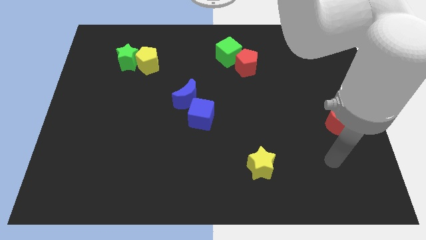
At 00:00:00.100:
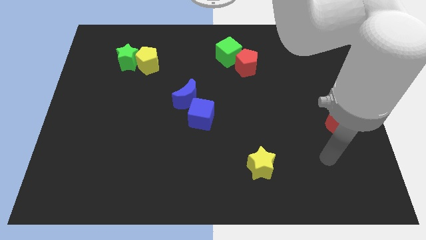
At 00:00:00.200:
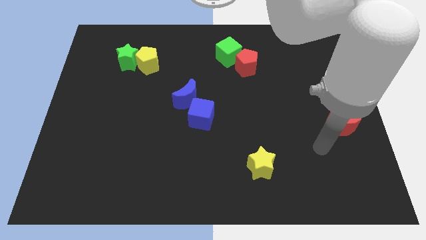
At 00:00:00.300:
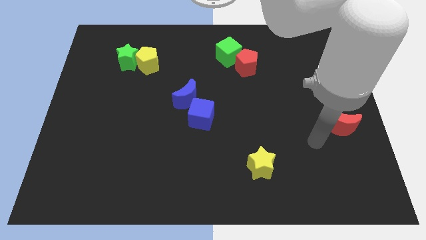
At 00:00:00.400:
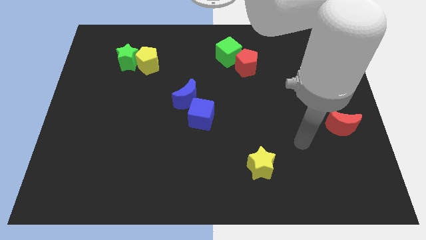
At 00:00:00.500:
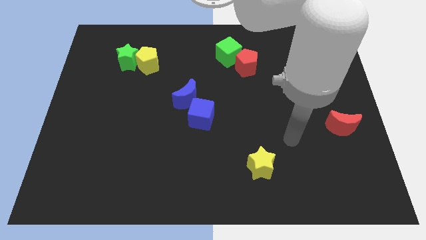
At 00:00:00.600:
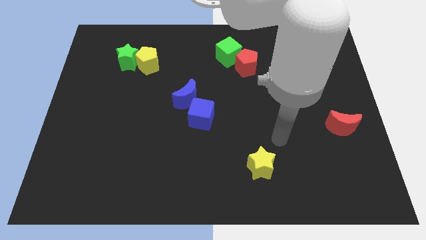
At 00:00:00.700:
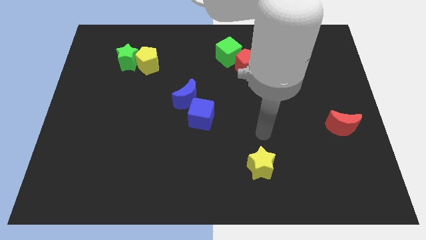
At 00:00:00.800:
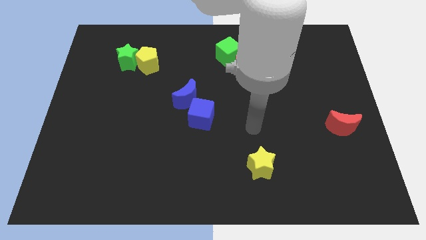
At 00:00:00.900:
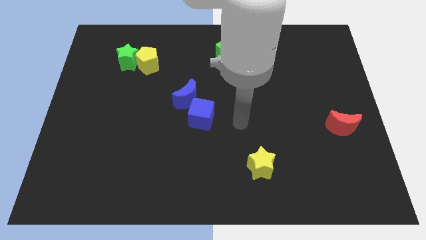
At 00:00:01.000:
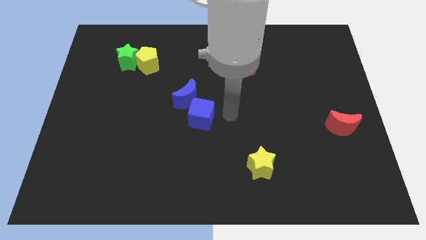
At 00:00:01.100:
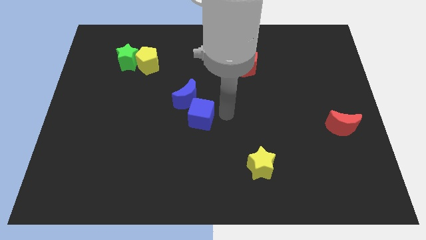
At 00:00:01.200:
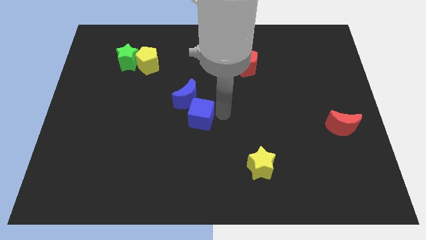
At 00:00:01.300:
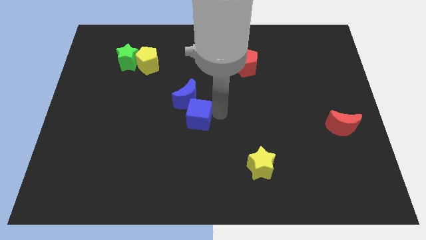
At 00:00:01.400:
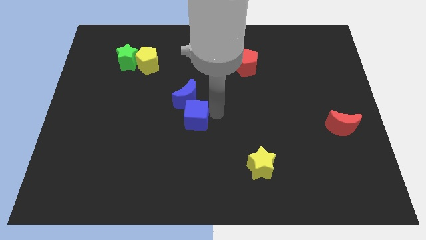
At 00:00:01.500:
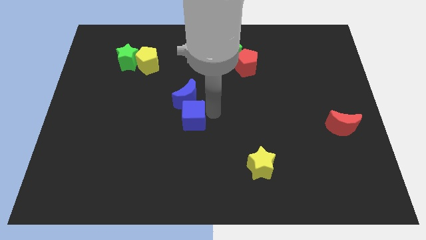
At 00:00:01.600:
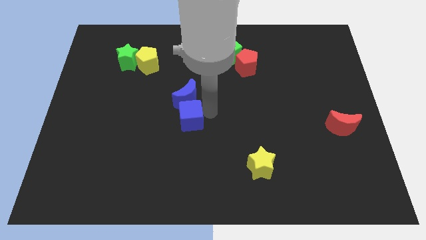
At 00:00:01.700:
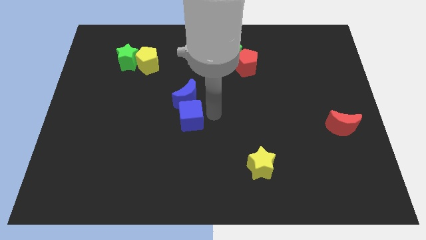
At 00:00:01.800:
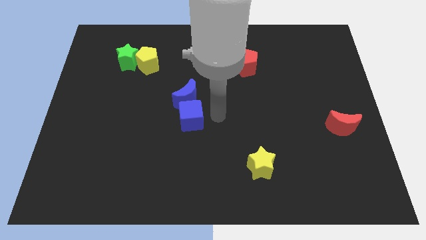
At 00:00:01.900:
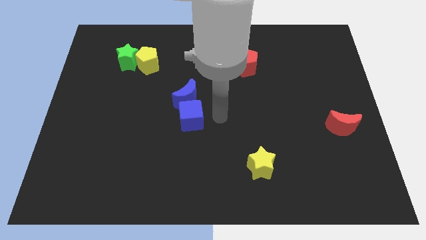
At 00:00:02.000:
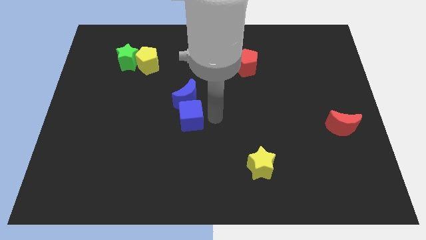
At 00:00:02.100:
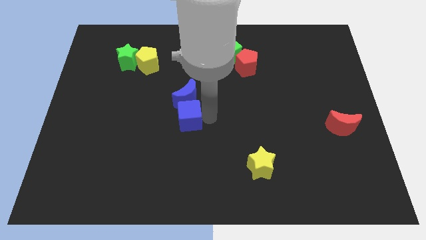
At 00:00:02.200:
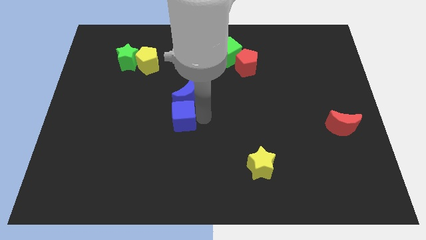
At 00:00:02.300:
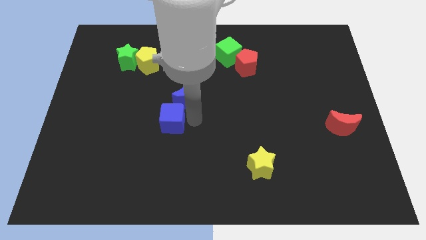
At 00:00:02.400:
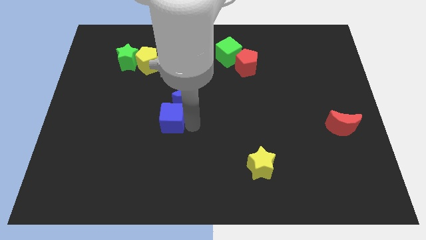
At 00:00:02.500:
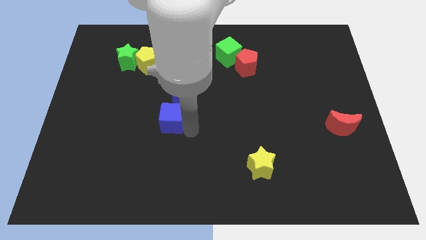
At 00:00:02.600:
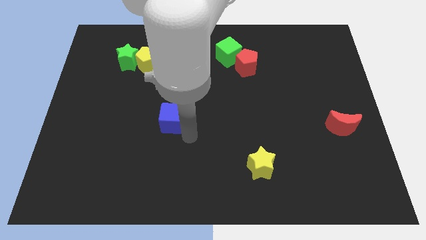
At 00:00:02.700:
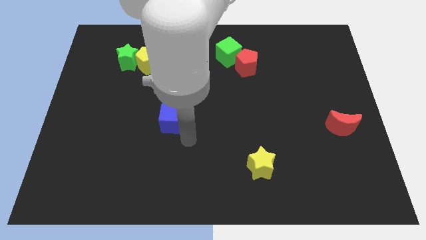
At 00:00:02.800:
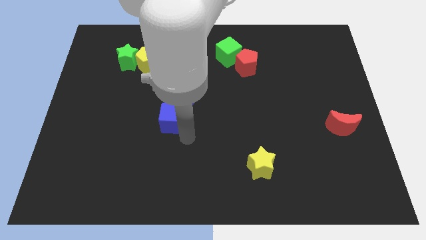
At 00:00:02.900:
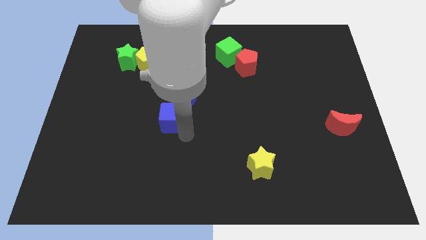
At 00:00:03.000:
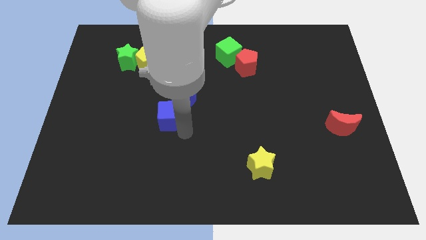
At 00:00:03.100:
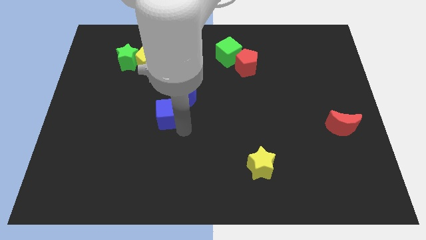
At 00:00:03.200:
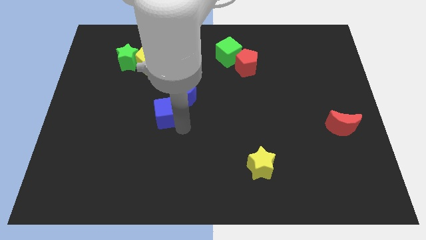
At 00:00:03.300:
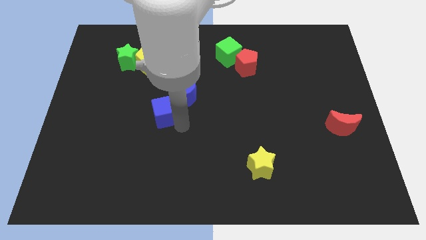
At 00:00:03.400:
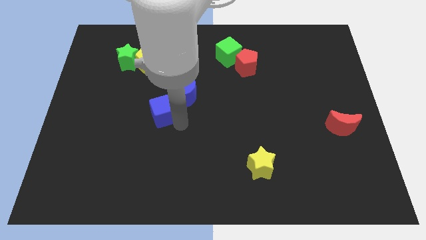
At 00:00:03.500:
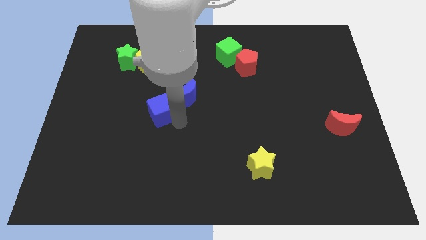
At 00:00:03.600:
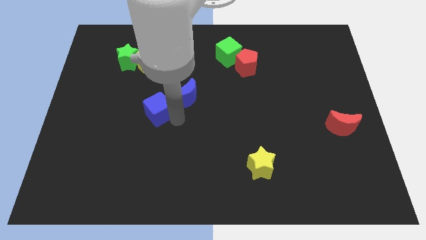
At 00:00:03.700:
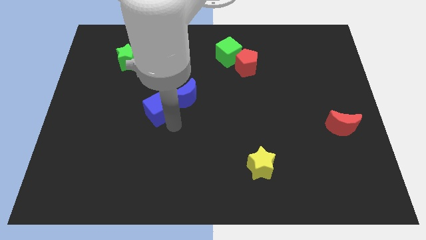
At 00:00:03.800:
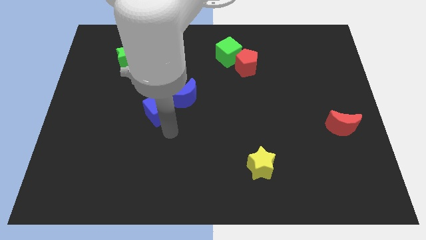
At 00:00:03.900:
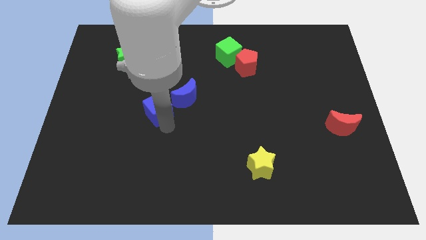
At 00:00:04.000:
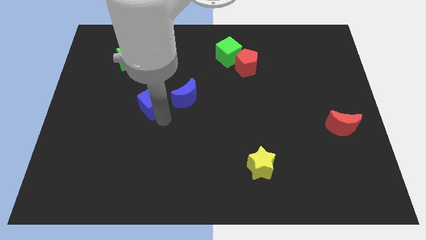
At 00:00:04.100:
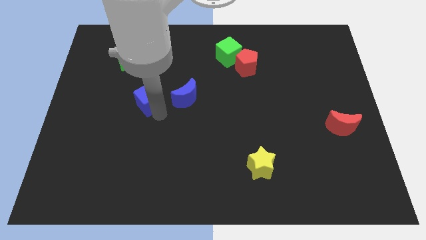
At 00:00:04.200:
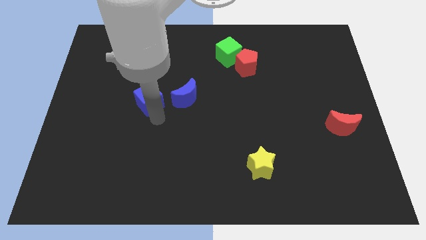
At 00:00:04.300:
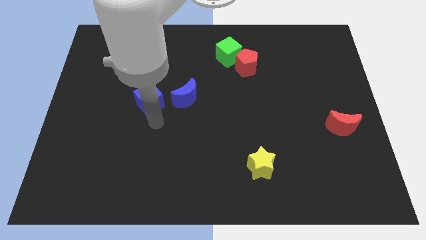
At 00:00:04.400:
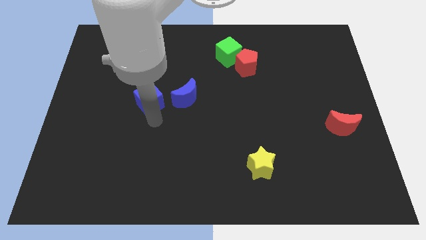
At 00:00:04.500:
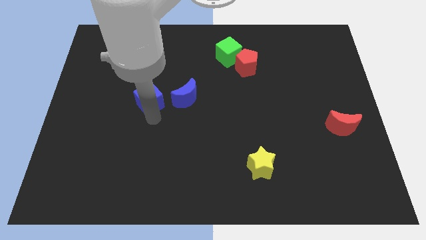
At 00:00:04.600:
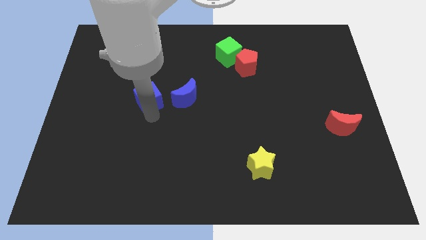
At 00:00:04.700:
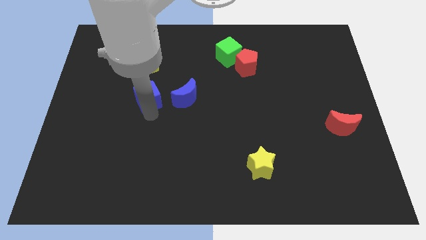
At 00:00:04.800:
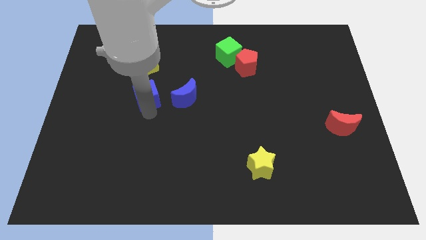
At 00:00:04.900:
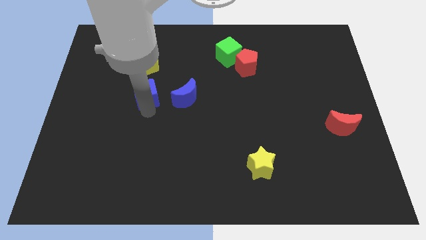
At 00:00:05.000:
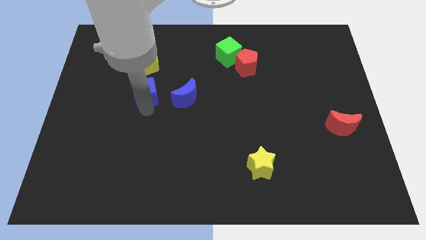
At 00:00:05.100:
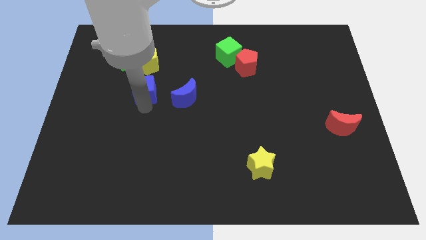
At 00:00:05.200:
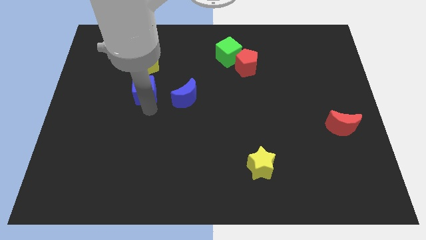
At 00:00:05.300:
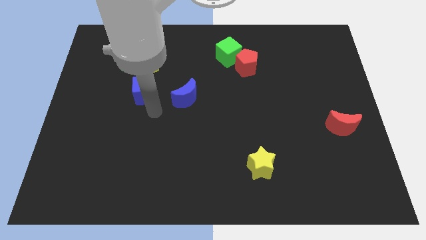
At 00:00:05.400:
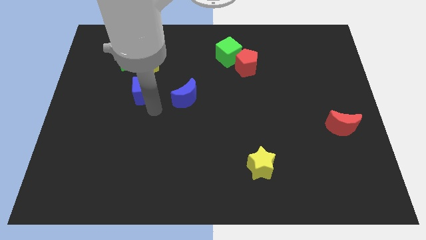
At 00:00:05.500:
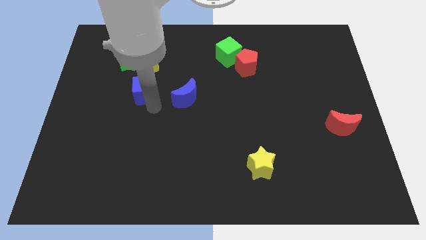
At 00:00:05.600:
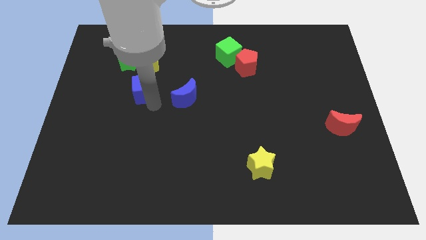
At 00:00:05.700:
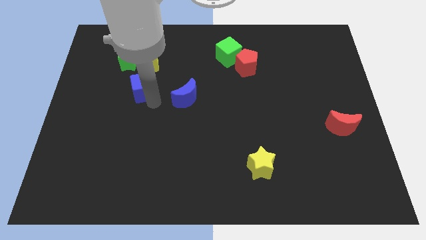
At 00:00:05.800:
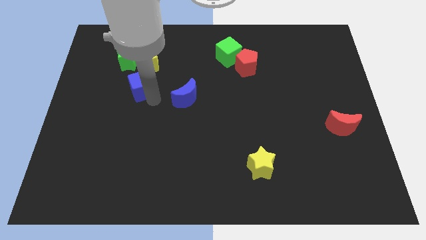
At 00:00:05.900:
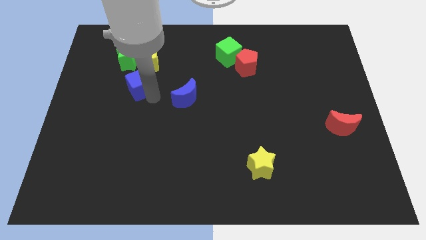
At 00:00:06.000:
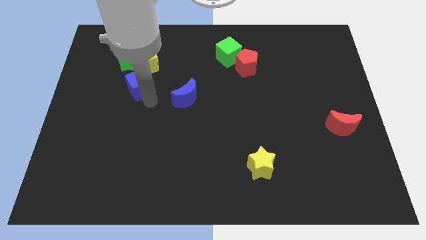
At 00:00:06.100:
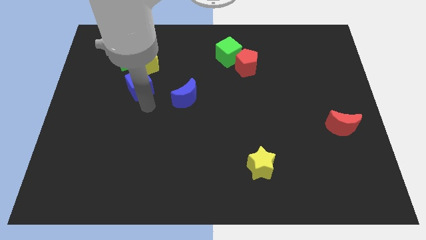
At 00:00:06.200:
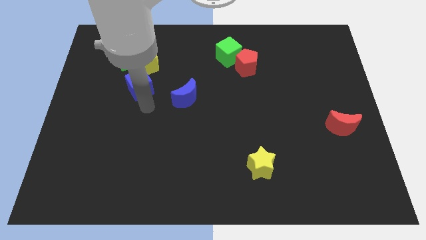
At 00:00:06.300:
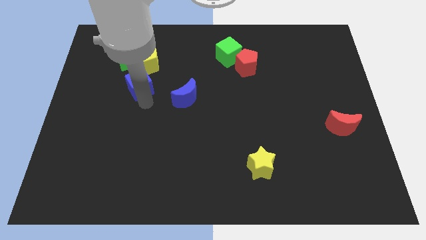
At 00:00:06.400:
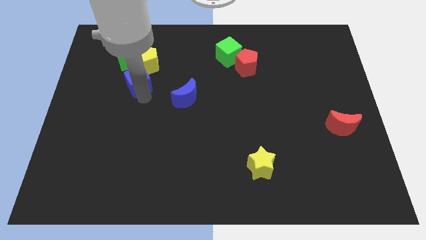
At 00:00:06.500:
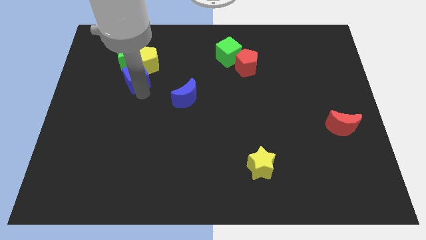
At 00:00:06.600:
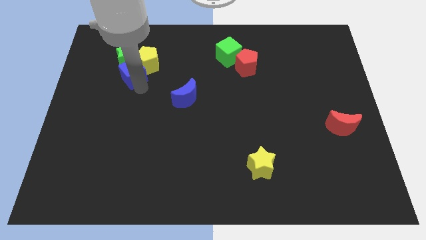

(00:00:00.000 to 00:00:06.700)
slide the blue cube close to the green star
